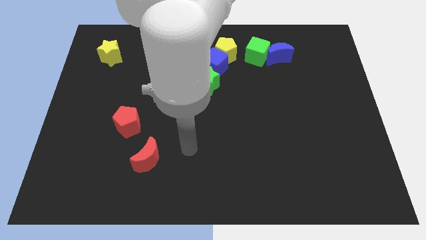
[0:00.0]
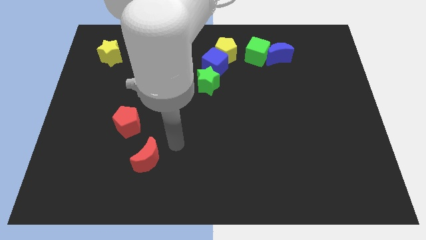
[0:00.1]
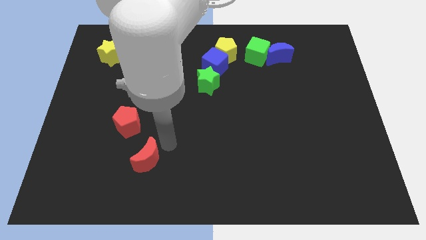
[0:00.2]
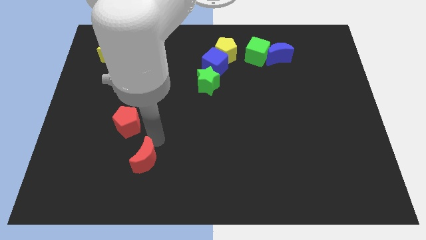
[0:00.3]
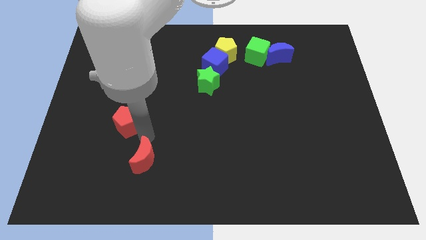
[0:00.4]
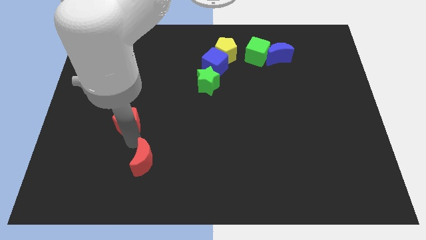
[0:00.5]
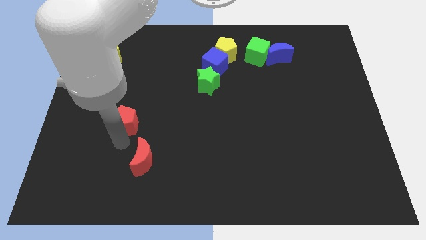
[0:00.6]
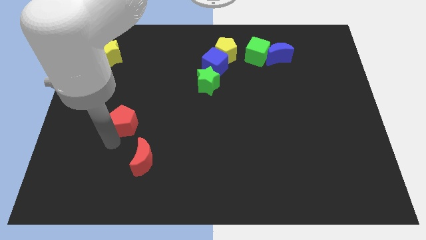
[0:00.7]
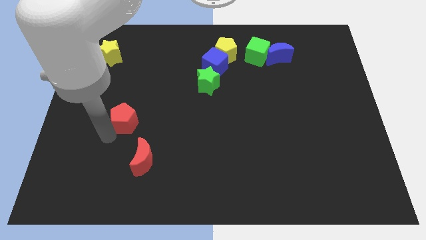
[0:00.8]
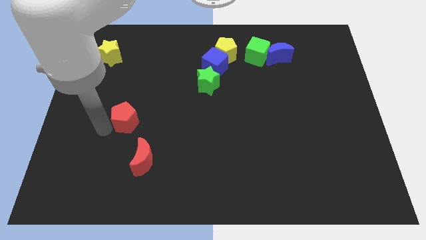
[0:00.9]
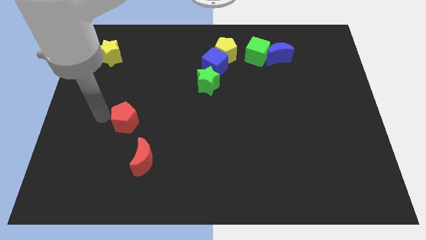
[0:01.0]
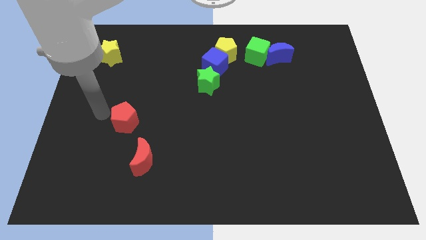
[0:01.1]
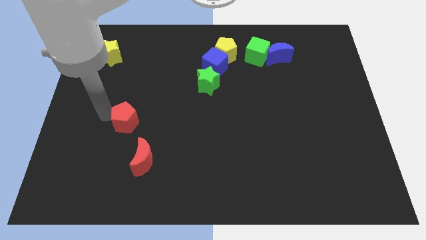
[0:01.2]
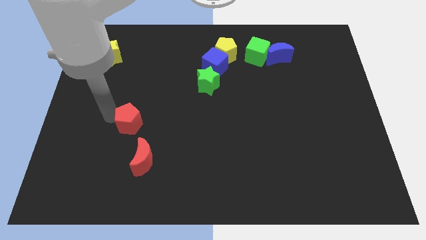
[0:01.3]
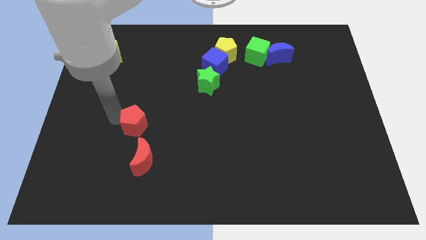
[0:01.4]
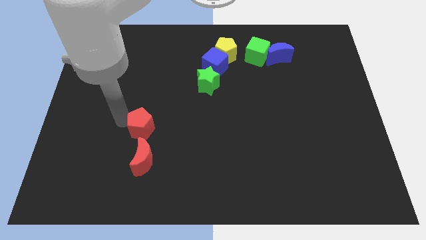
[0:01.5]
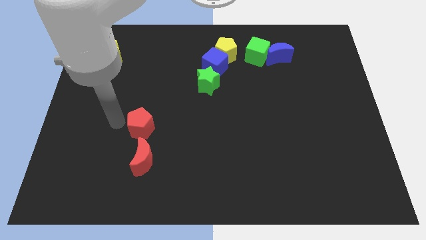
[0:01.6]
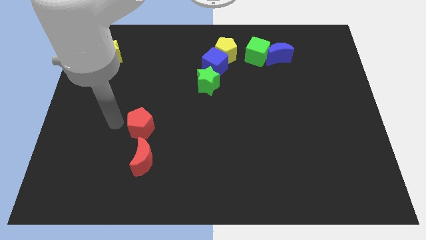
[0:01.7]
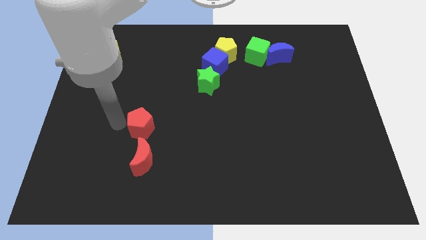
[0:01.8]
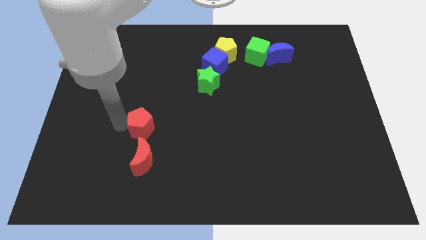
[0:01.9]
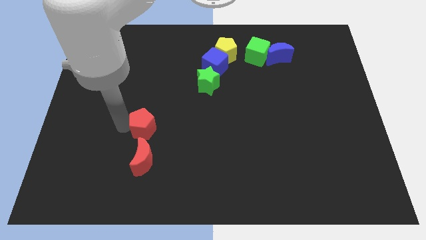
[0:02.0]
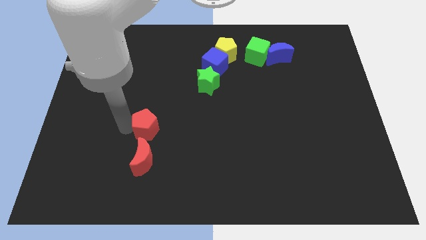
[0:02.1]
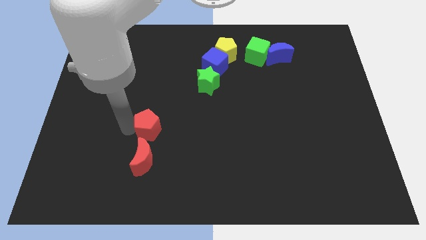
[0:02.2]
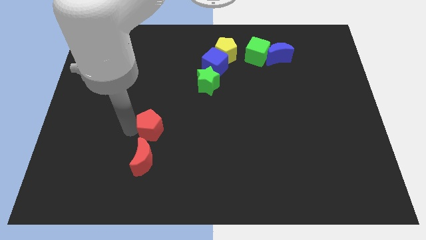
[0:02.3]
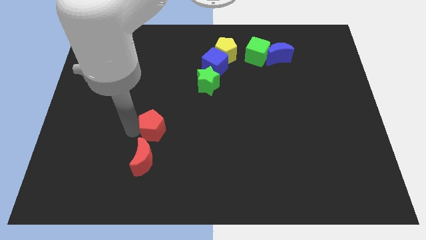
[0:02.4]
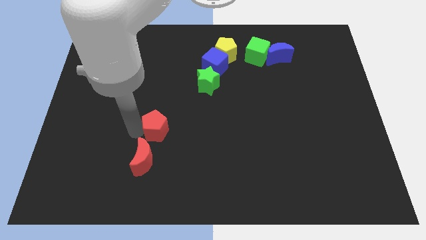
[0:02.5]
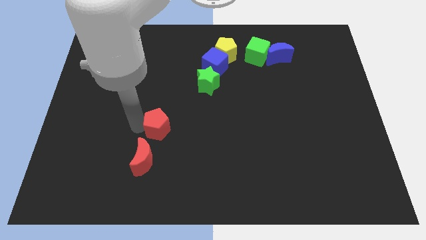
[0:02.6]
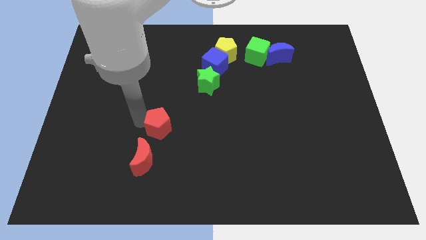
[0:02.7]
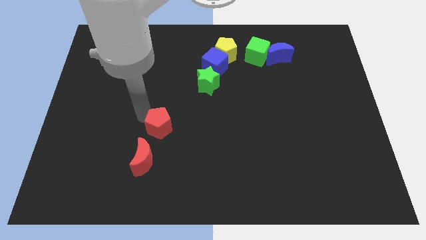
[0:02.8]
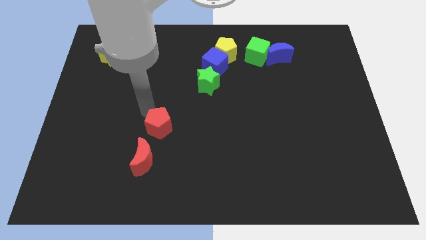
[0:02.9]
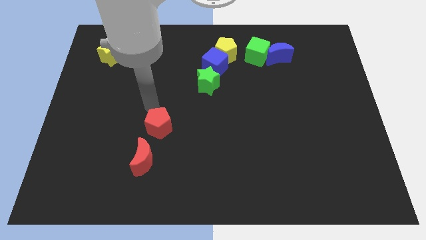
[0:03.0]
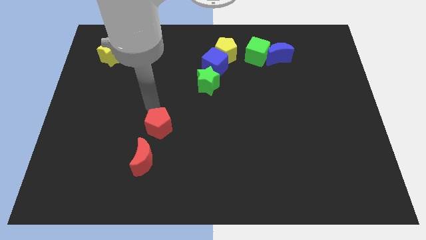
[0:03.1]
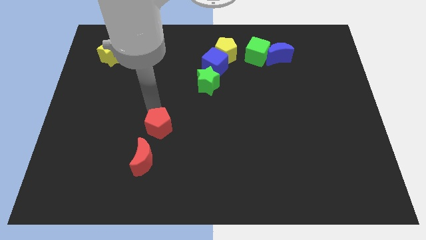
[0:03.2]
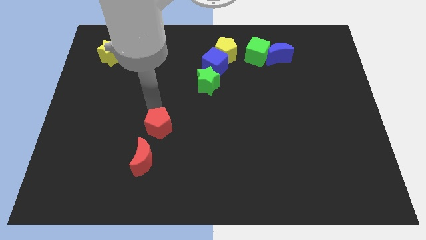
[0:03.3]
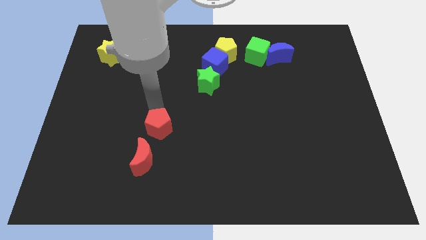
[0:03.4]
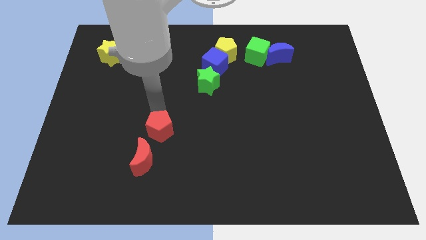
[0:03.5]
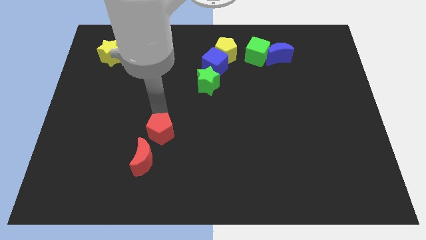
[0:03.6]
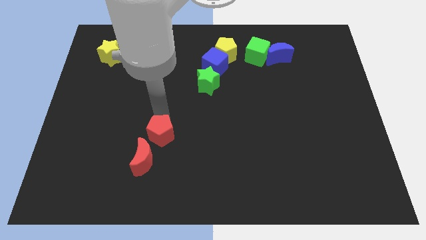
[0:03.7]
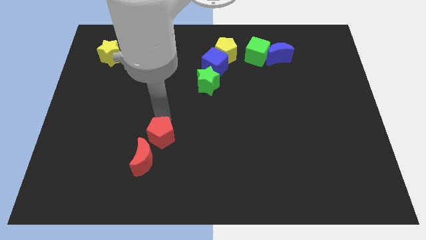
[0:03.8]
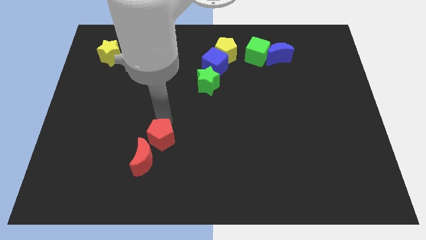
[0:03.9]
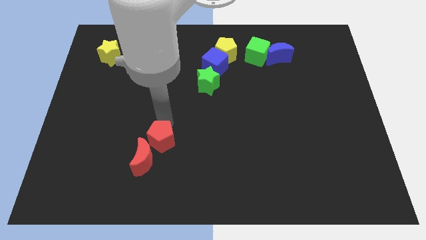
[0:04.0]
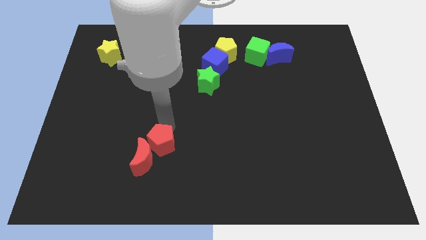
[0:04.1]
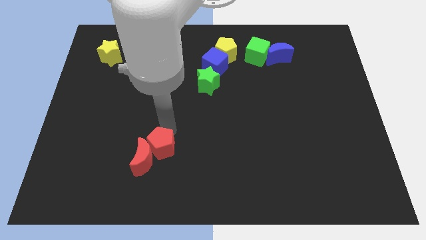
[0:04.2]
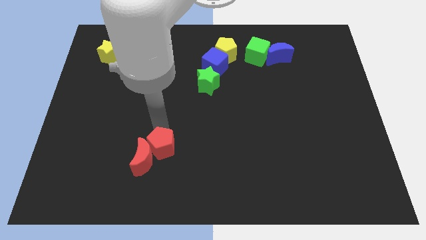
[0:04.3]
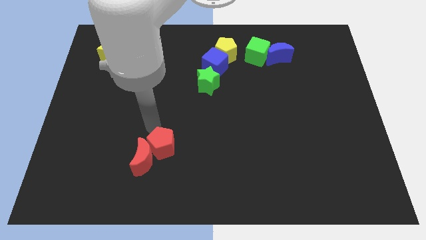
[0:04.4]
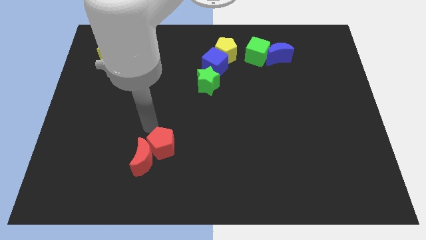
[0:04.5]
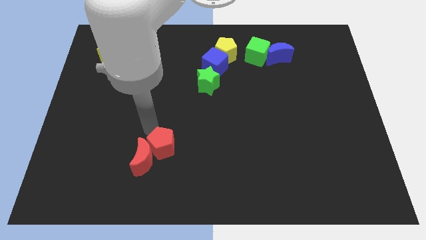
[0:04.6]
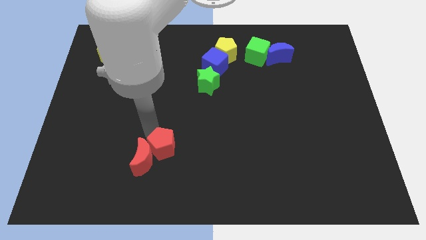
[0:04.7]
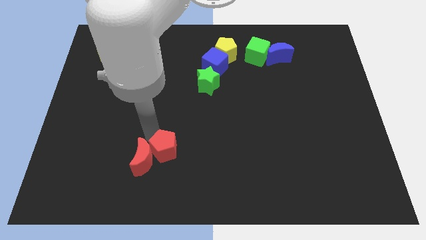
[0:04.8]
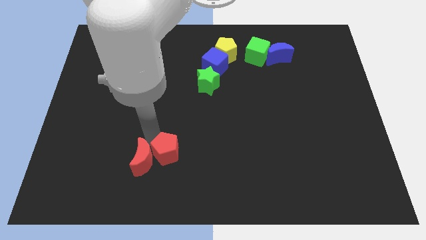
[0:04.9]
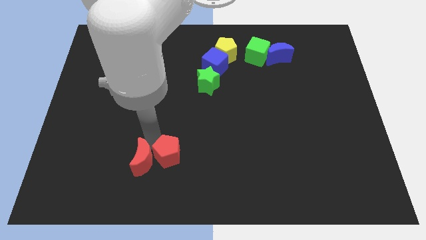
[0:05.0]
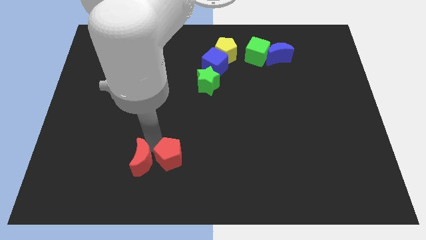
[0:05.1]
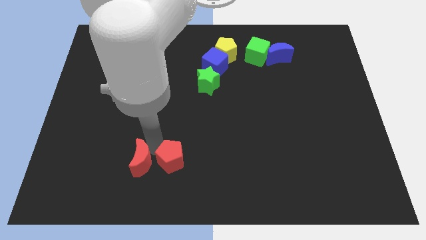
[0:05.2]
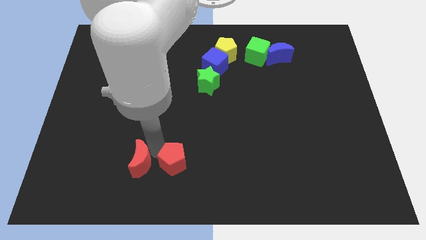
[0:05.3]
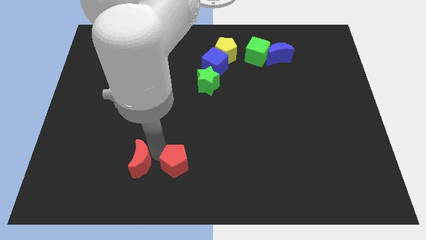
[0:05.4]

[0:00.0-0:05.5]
put the red pentagon to the bottom
